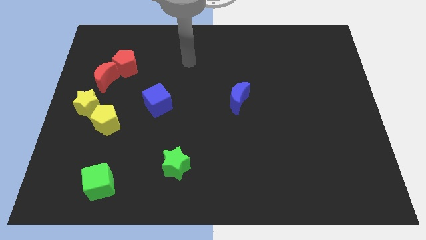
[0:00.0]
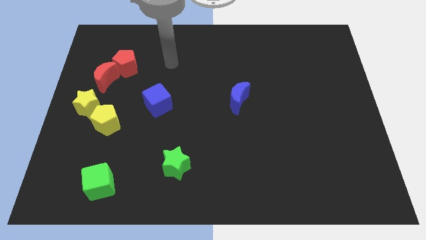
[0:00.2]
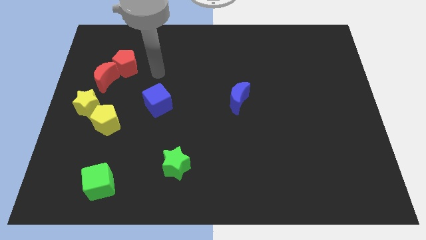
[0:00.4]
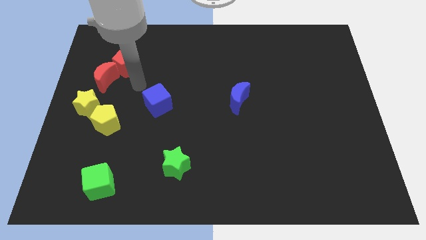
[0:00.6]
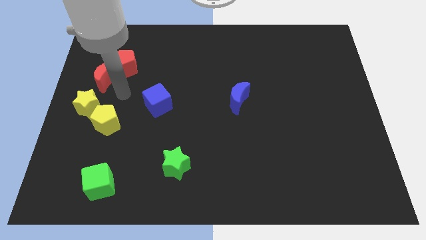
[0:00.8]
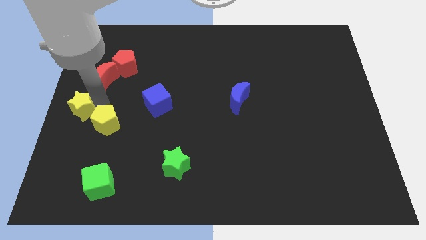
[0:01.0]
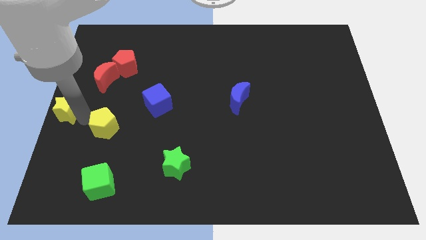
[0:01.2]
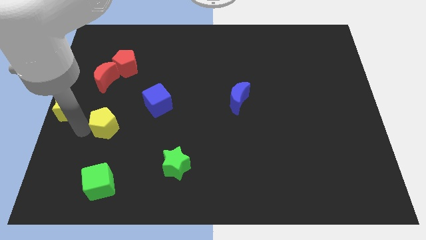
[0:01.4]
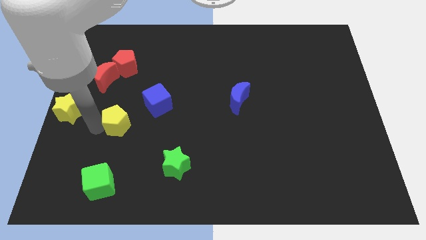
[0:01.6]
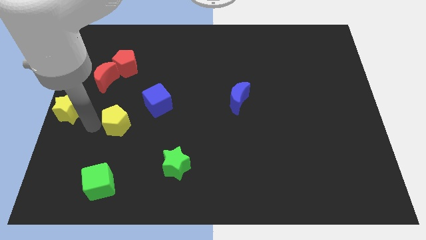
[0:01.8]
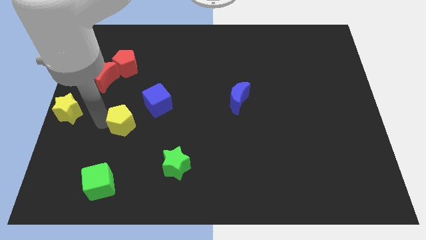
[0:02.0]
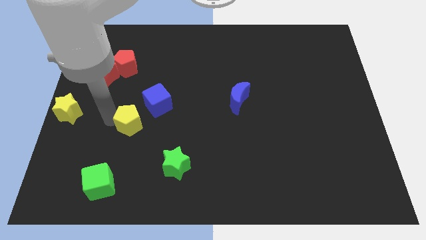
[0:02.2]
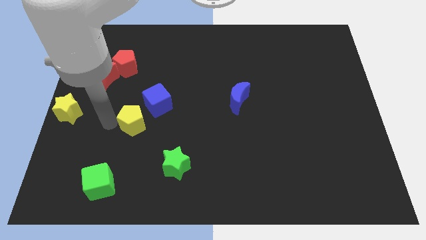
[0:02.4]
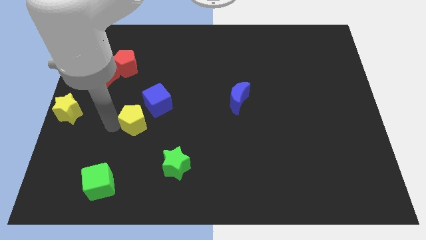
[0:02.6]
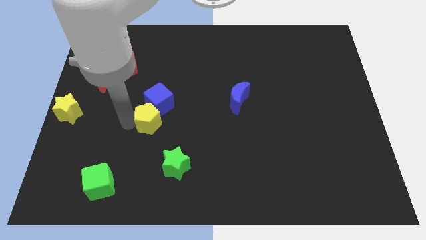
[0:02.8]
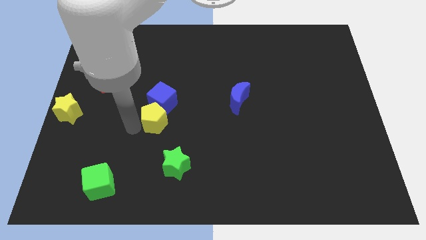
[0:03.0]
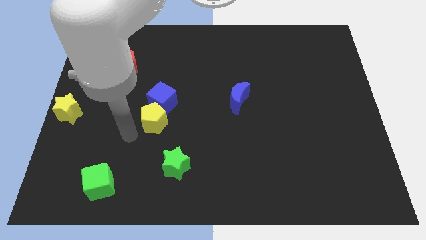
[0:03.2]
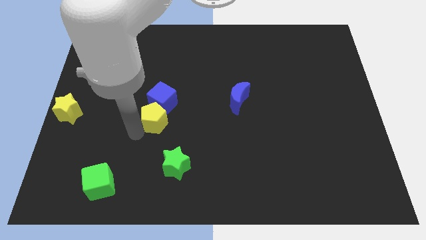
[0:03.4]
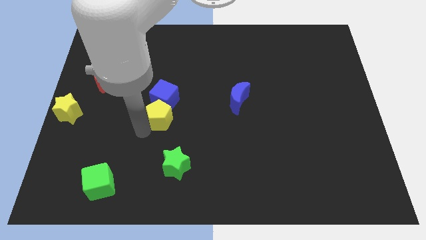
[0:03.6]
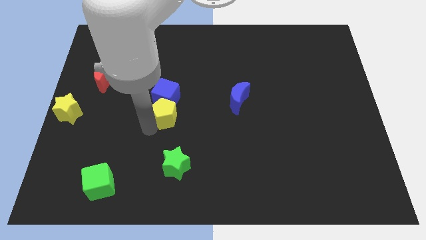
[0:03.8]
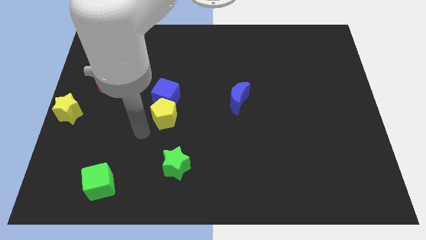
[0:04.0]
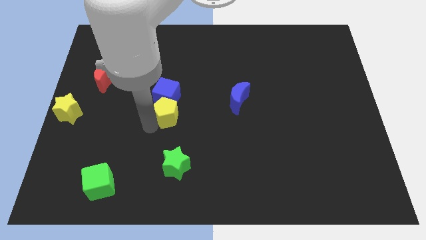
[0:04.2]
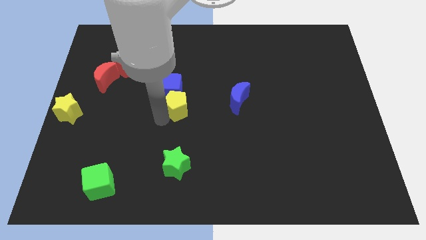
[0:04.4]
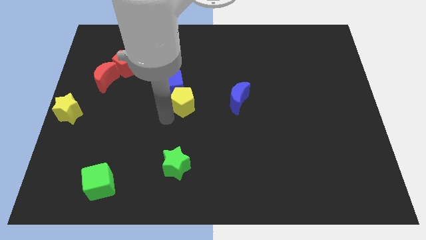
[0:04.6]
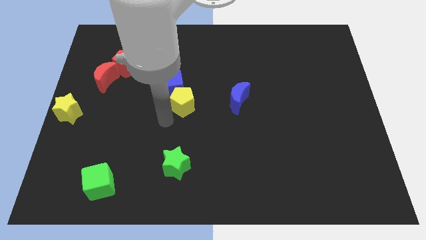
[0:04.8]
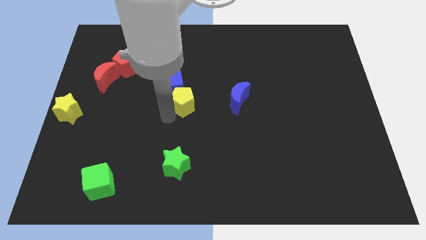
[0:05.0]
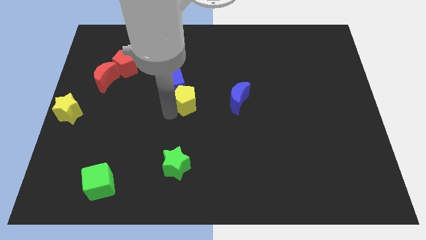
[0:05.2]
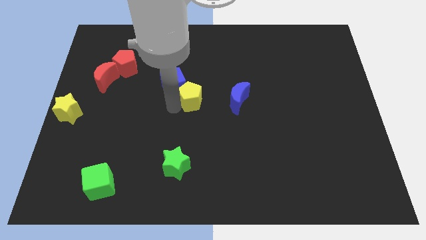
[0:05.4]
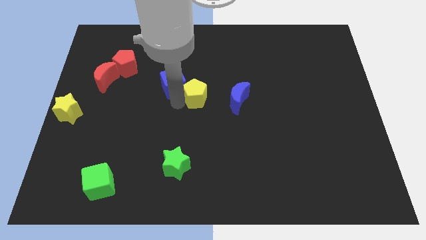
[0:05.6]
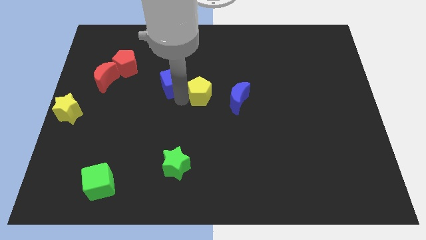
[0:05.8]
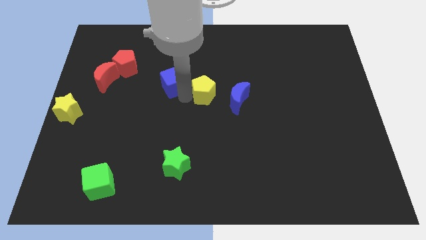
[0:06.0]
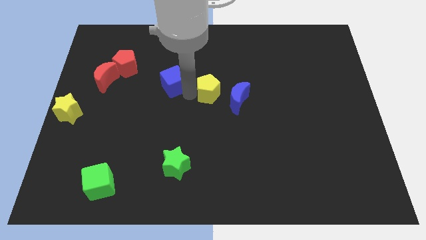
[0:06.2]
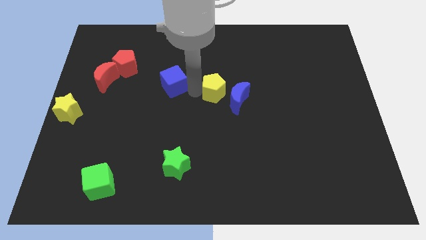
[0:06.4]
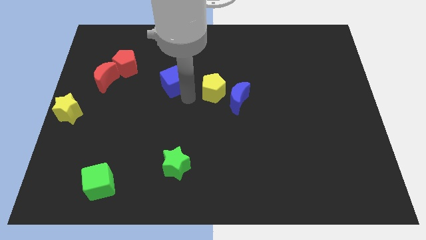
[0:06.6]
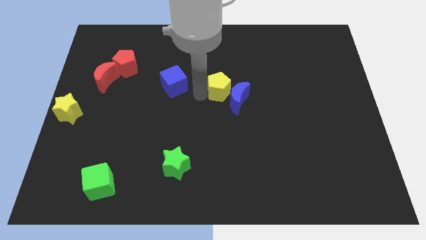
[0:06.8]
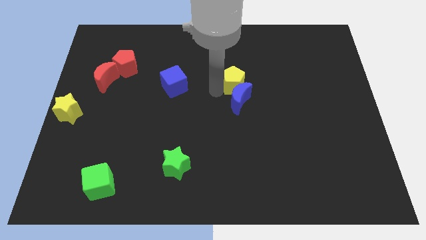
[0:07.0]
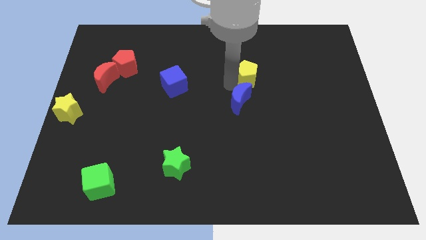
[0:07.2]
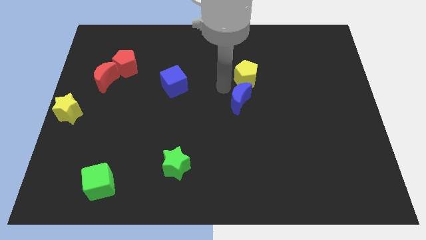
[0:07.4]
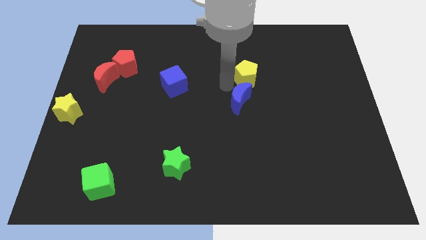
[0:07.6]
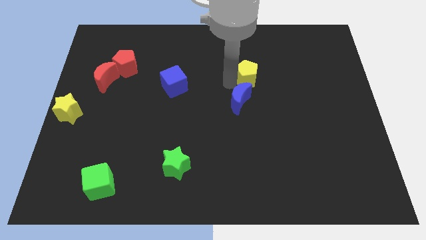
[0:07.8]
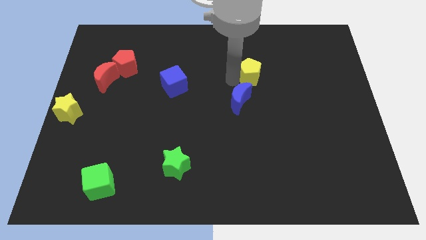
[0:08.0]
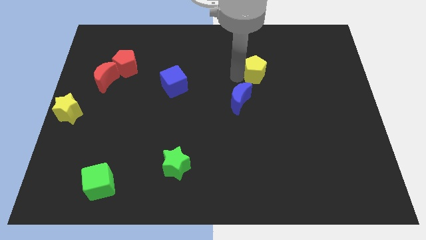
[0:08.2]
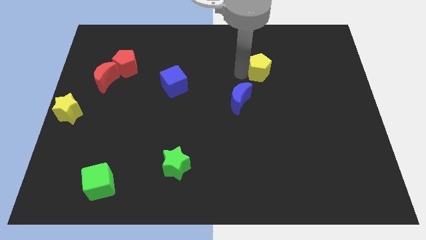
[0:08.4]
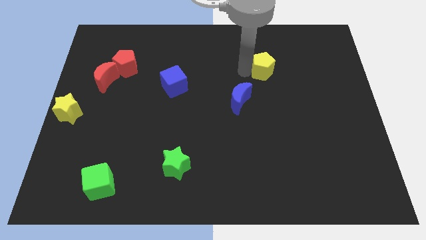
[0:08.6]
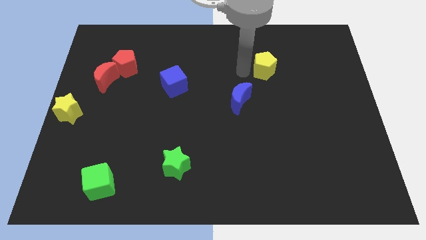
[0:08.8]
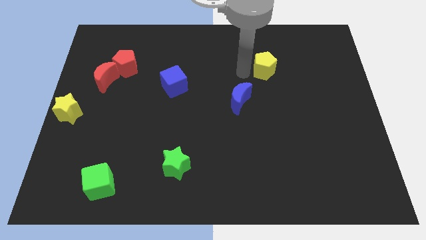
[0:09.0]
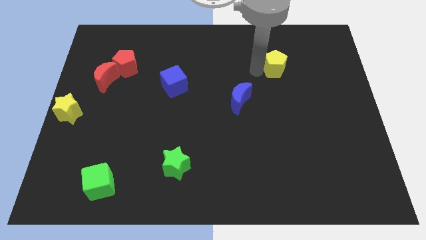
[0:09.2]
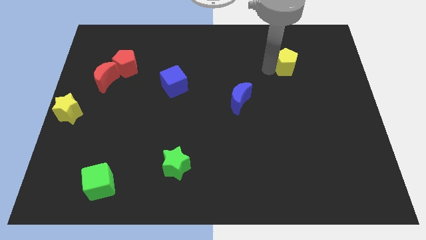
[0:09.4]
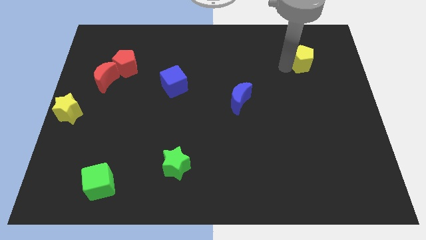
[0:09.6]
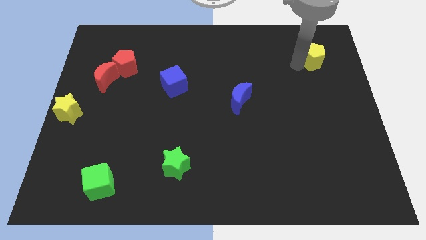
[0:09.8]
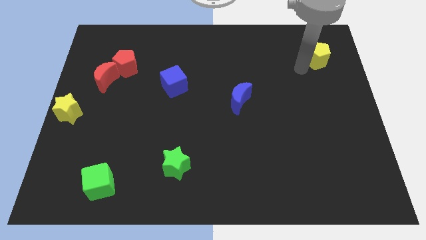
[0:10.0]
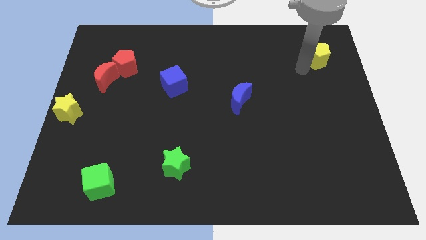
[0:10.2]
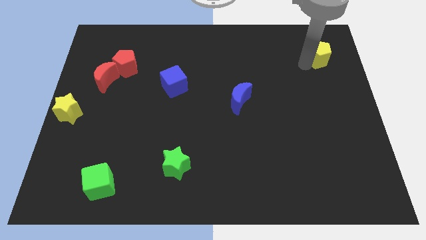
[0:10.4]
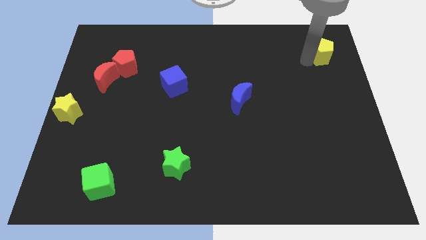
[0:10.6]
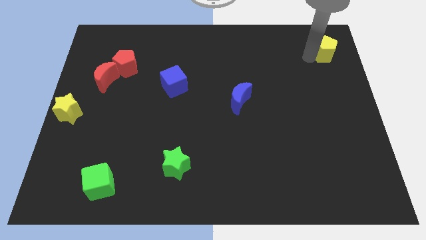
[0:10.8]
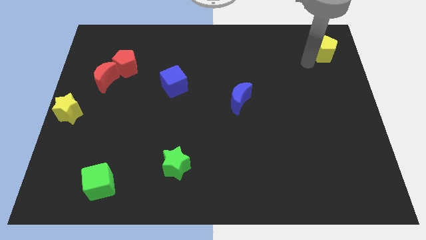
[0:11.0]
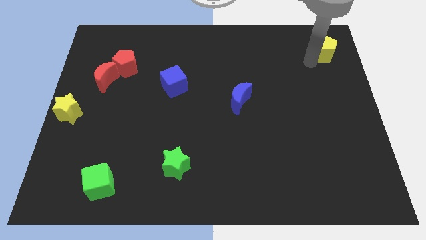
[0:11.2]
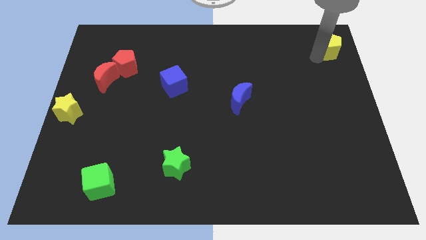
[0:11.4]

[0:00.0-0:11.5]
put the yellow pentagon to the upper right corner
